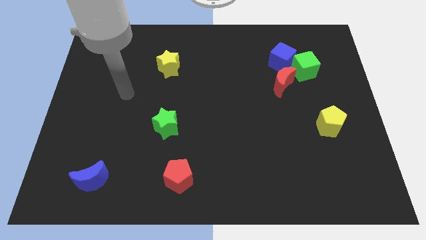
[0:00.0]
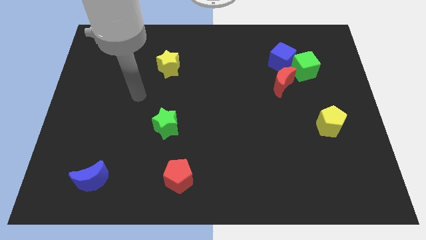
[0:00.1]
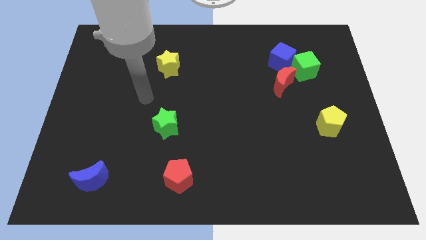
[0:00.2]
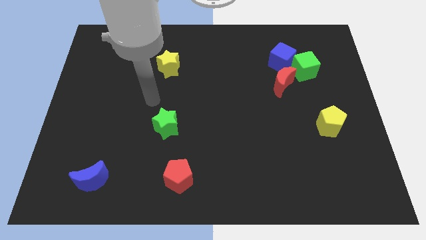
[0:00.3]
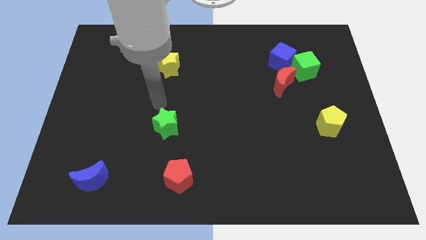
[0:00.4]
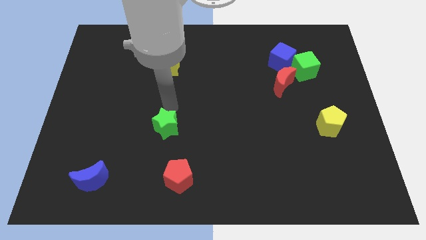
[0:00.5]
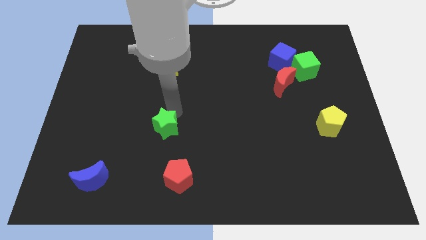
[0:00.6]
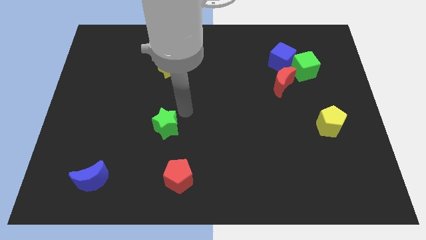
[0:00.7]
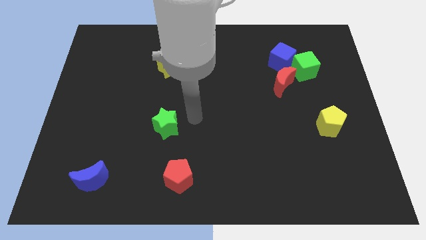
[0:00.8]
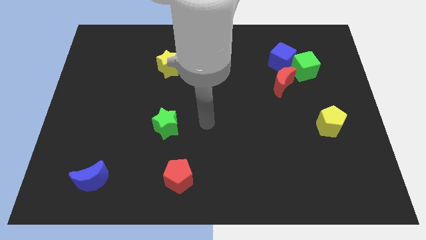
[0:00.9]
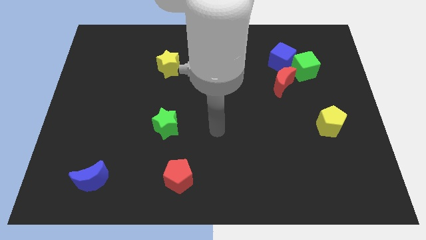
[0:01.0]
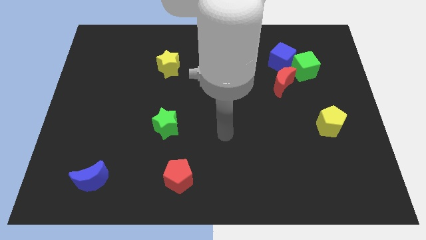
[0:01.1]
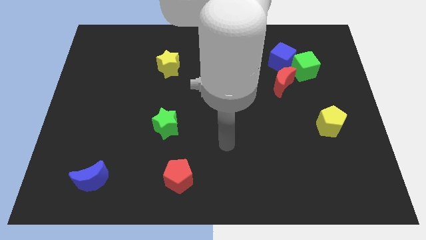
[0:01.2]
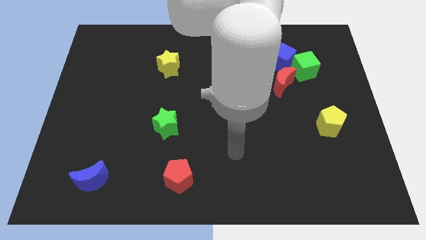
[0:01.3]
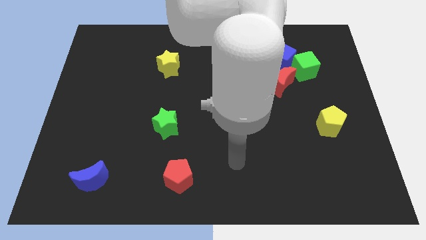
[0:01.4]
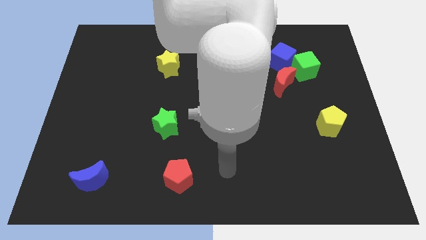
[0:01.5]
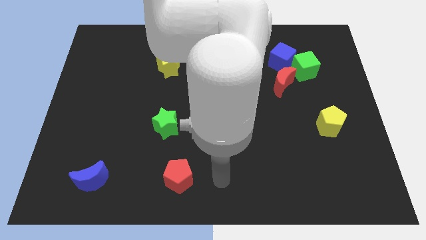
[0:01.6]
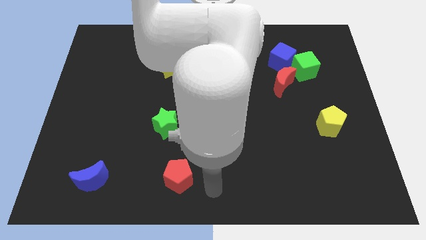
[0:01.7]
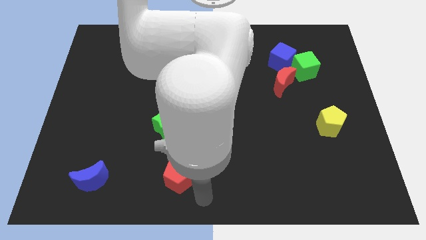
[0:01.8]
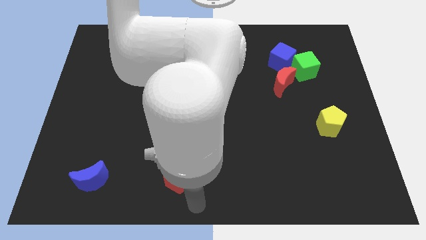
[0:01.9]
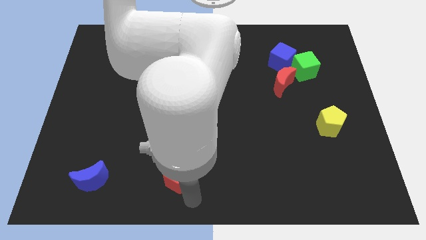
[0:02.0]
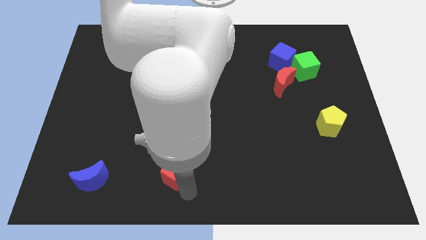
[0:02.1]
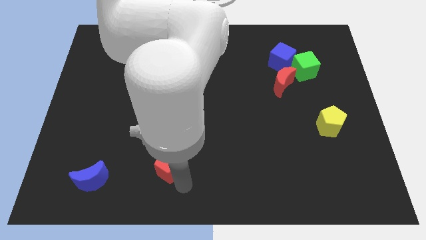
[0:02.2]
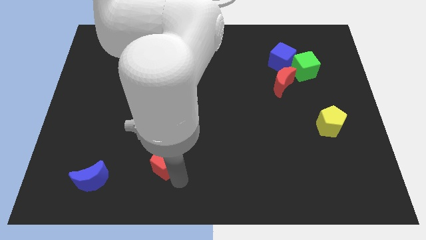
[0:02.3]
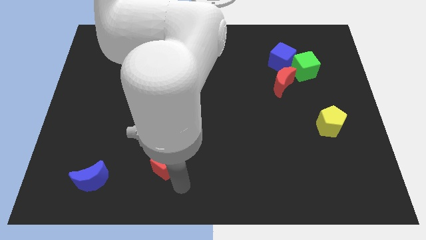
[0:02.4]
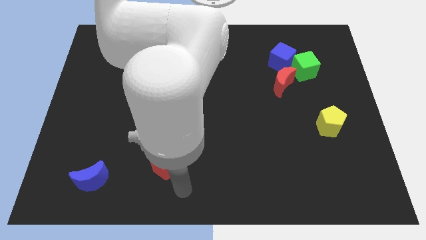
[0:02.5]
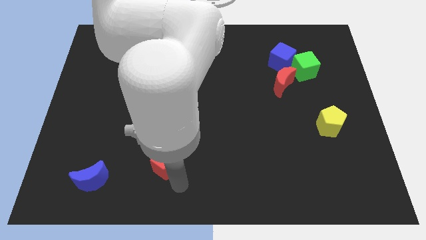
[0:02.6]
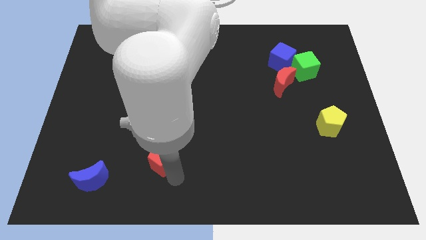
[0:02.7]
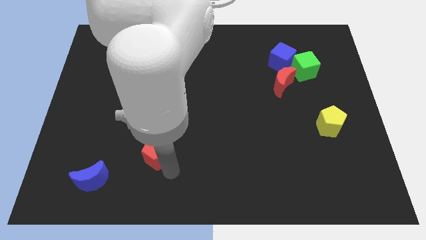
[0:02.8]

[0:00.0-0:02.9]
slide the red pentagon up and then to the left a bit

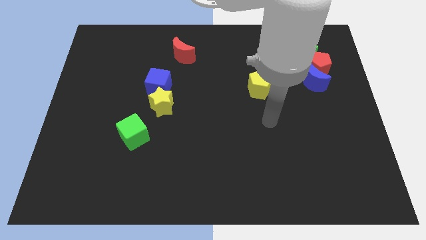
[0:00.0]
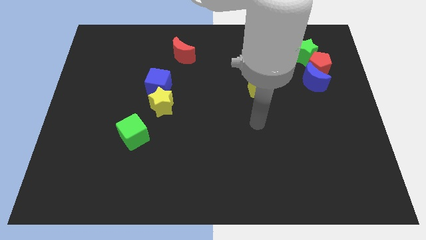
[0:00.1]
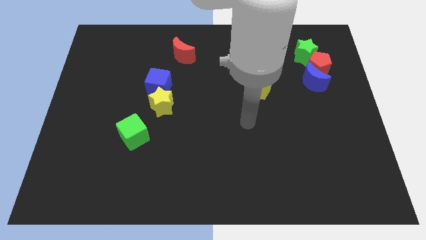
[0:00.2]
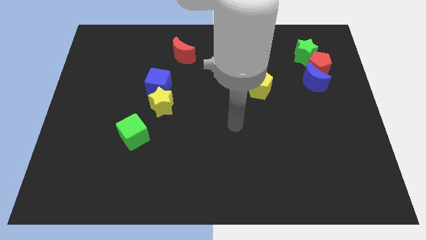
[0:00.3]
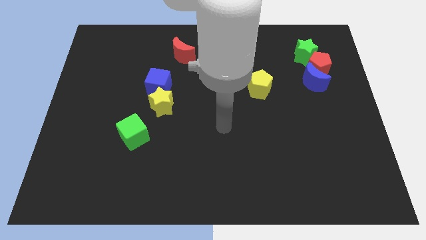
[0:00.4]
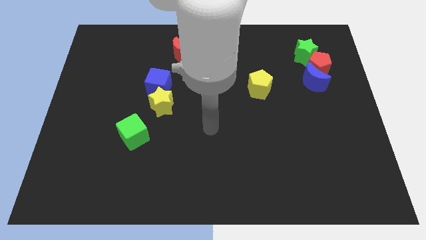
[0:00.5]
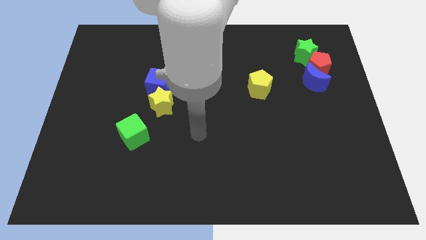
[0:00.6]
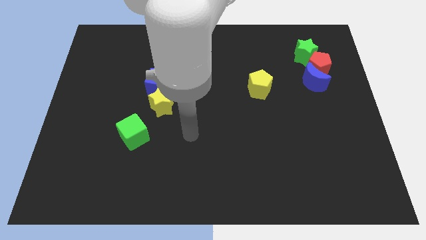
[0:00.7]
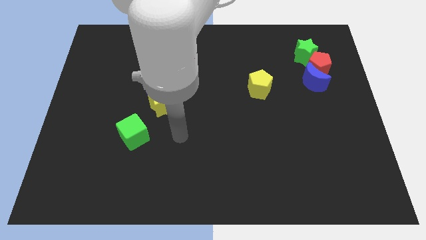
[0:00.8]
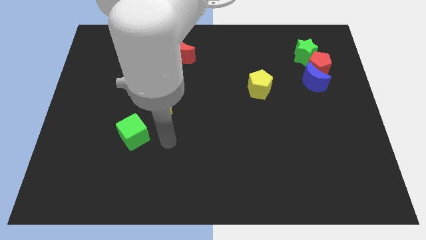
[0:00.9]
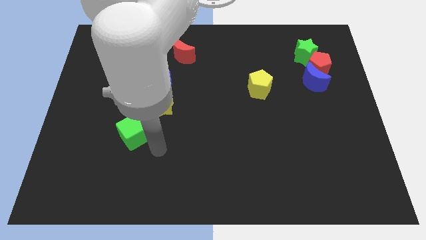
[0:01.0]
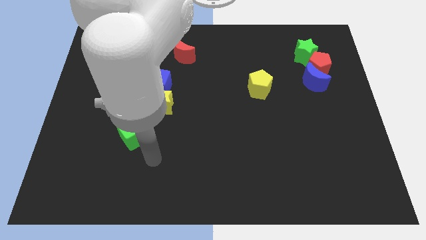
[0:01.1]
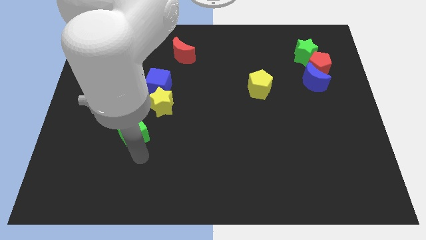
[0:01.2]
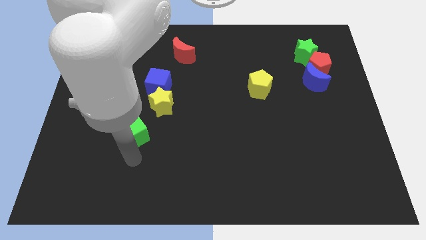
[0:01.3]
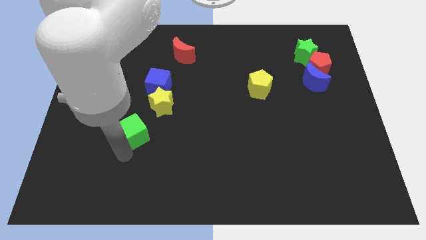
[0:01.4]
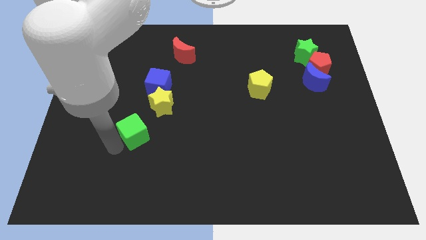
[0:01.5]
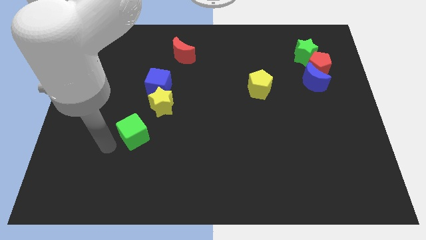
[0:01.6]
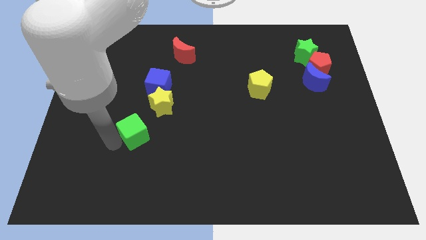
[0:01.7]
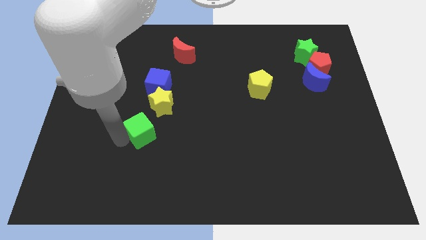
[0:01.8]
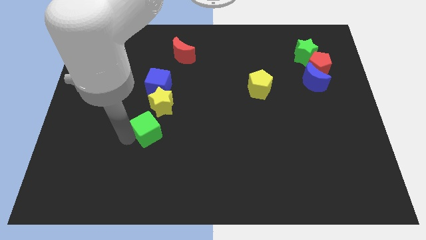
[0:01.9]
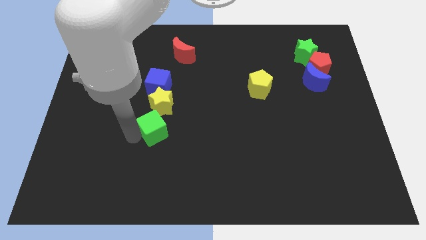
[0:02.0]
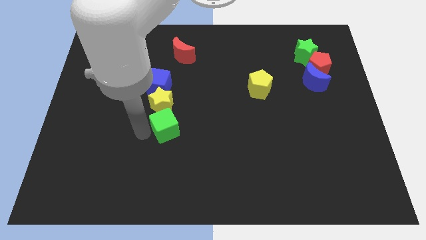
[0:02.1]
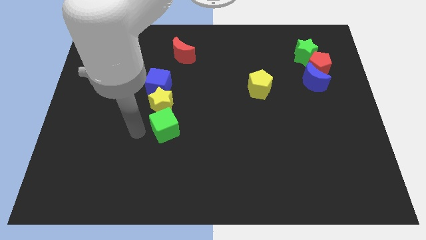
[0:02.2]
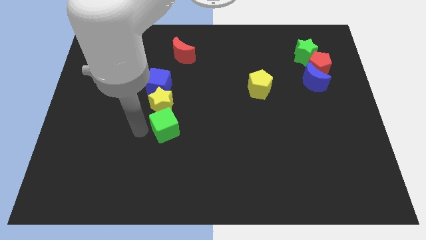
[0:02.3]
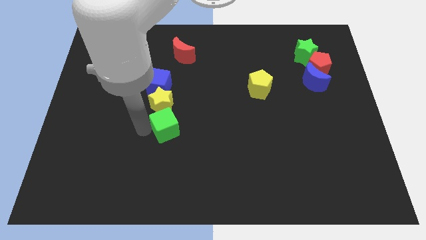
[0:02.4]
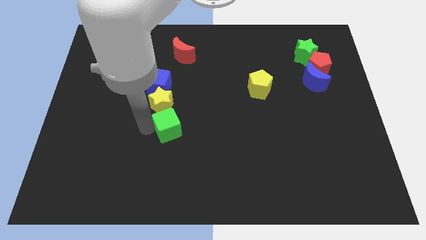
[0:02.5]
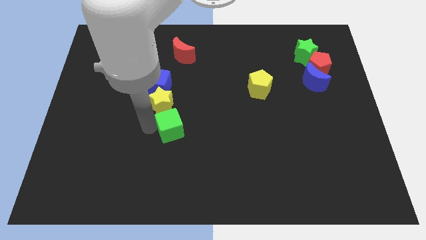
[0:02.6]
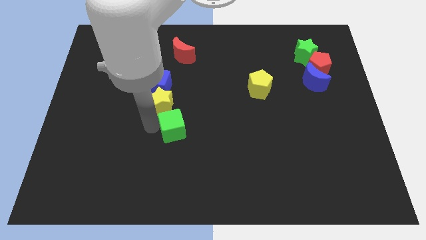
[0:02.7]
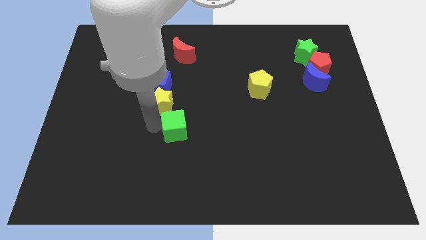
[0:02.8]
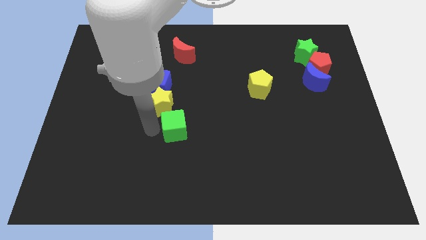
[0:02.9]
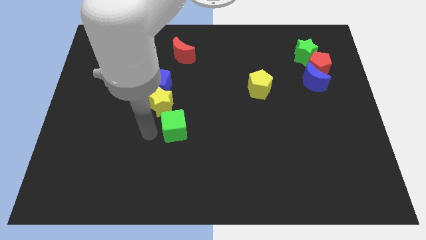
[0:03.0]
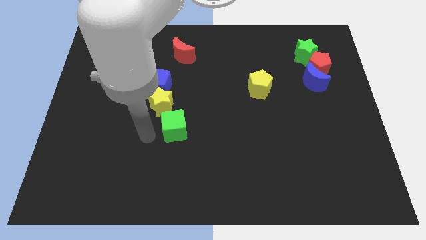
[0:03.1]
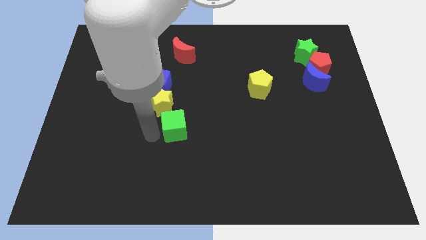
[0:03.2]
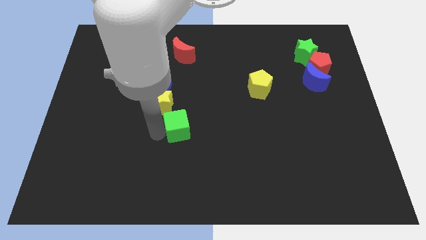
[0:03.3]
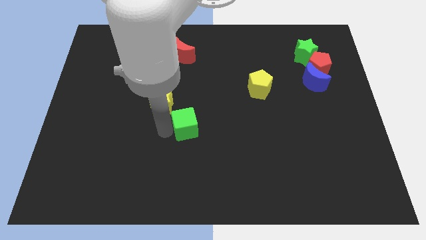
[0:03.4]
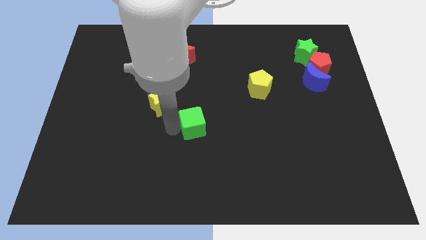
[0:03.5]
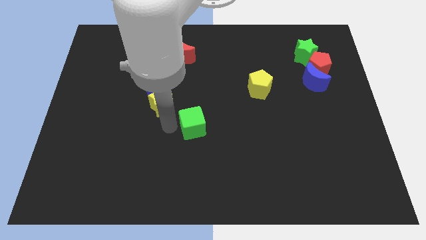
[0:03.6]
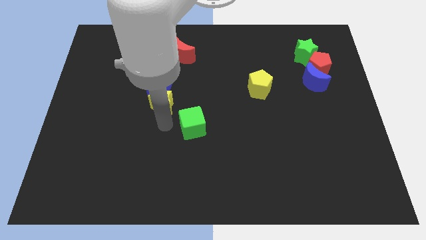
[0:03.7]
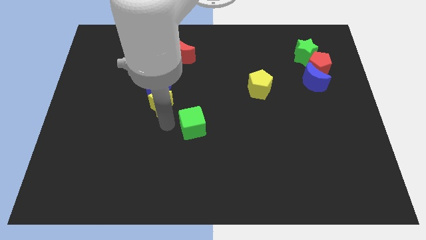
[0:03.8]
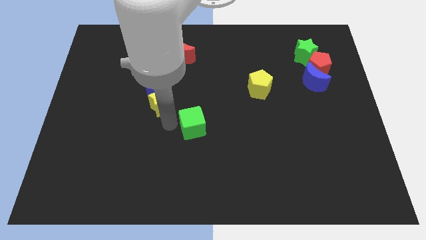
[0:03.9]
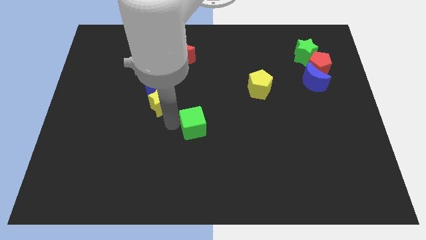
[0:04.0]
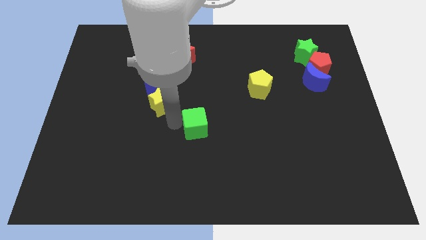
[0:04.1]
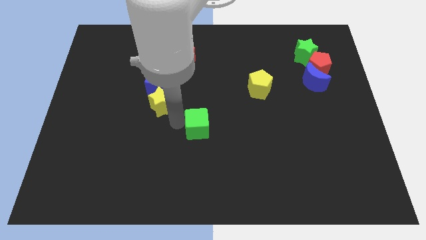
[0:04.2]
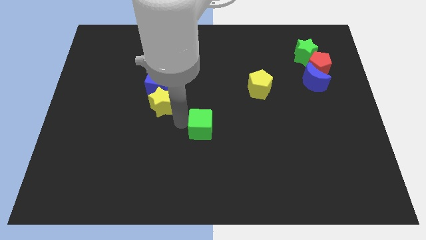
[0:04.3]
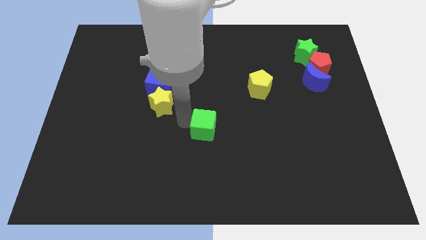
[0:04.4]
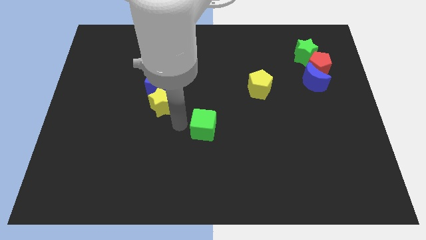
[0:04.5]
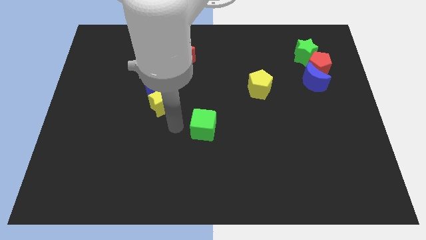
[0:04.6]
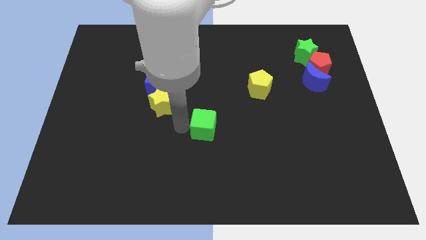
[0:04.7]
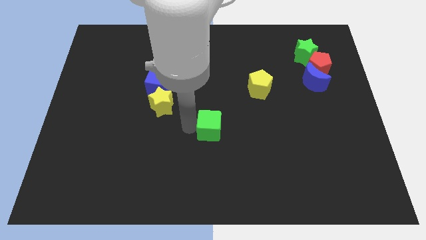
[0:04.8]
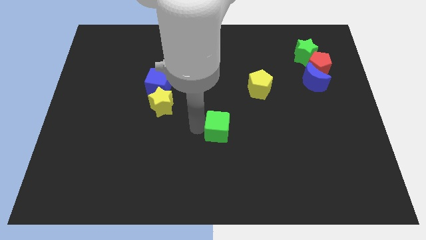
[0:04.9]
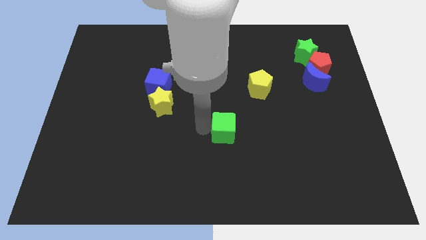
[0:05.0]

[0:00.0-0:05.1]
push the green cube to the right
